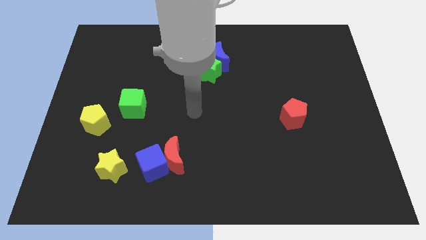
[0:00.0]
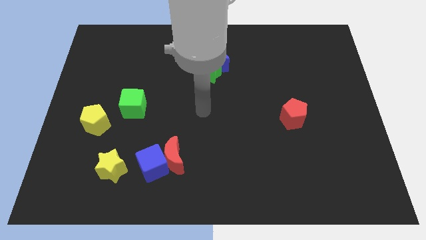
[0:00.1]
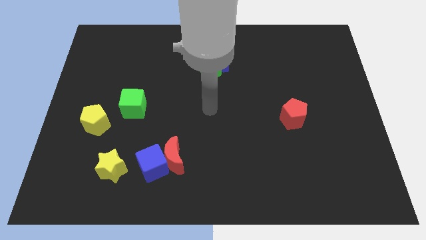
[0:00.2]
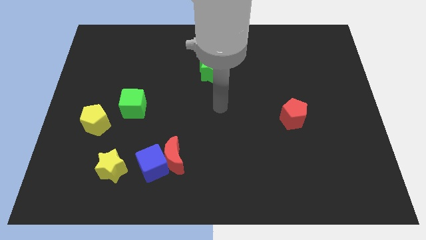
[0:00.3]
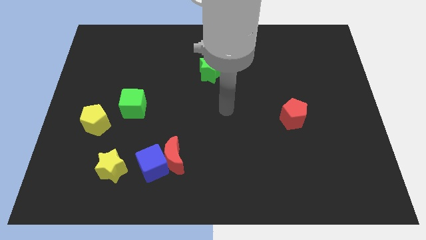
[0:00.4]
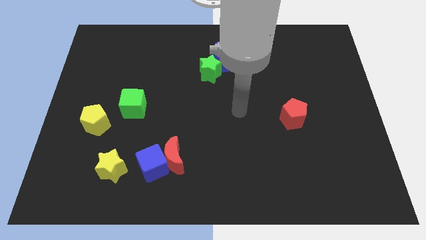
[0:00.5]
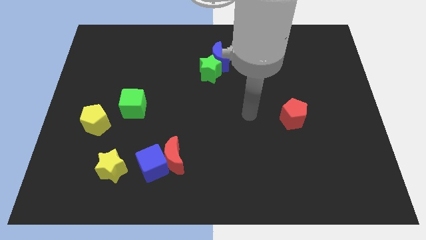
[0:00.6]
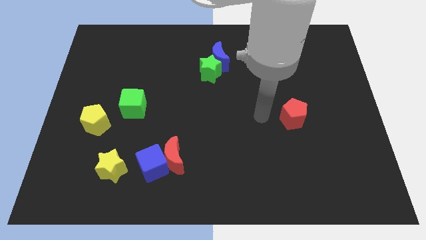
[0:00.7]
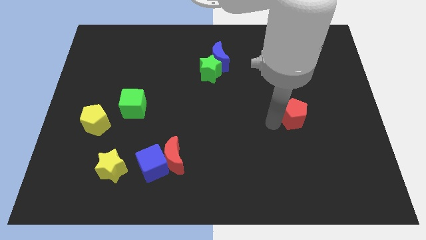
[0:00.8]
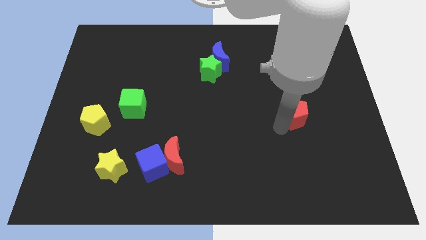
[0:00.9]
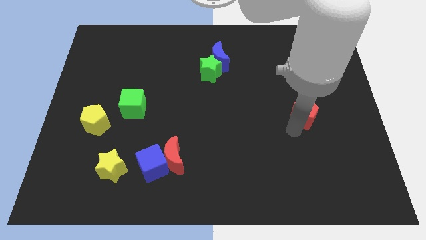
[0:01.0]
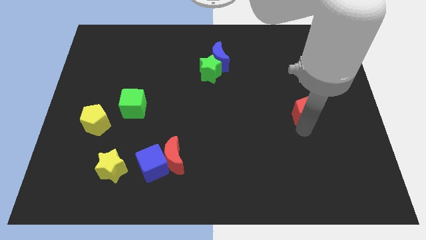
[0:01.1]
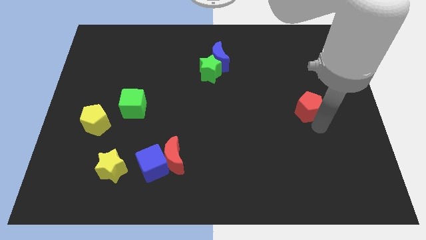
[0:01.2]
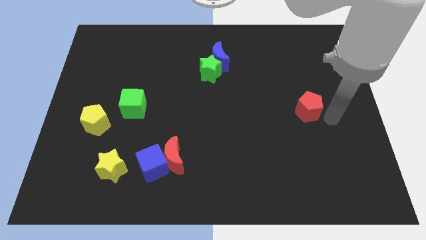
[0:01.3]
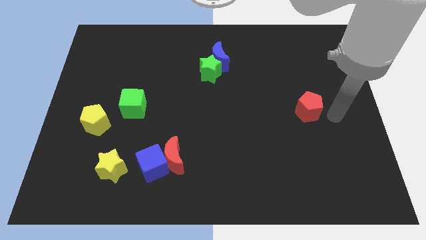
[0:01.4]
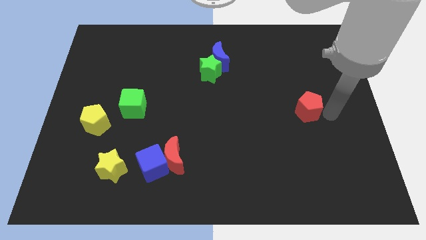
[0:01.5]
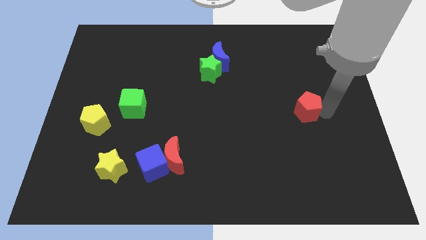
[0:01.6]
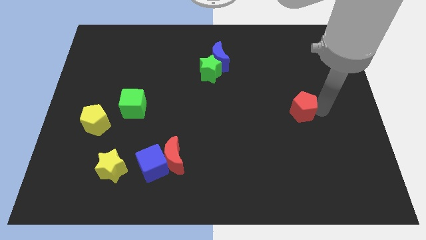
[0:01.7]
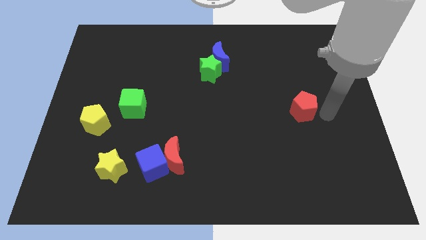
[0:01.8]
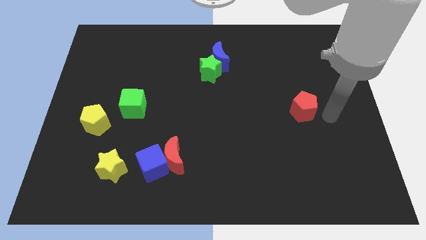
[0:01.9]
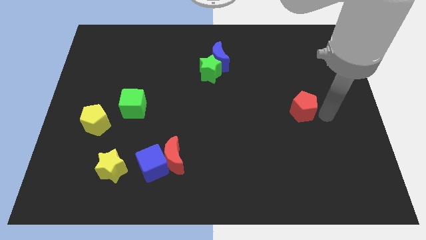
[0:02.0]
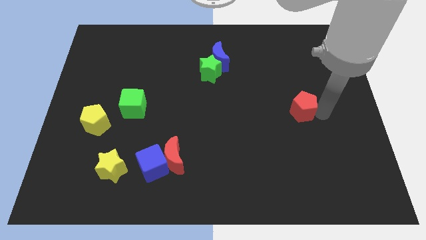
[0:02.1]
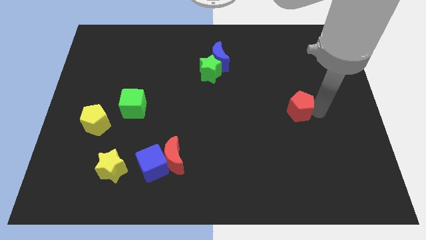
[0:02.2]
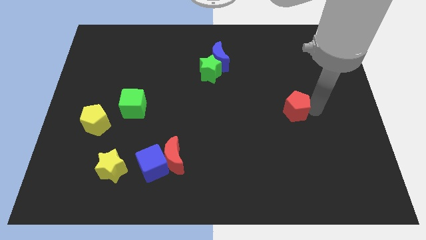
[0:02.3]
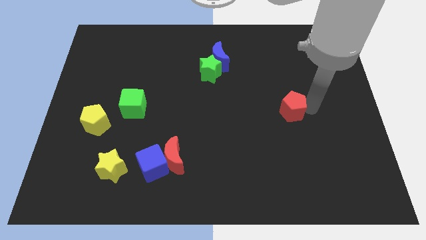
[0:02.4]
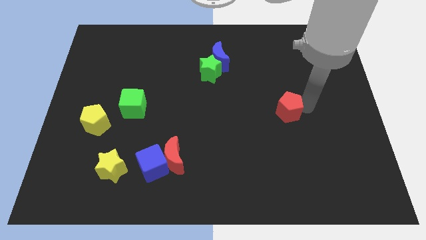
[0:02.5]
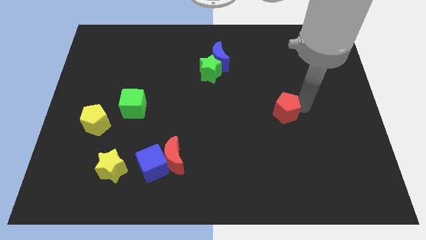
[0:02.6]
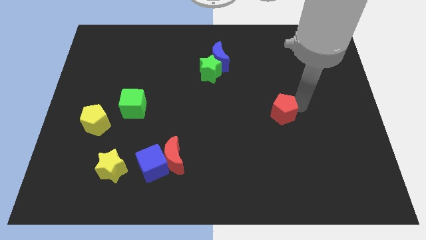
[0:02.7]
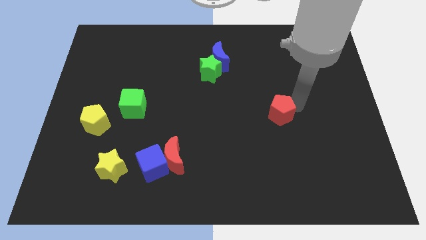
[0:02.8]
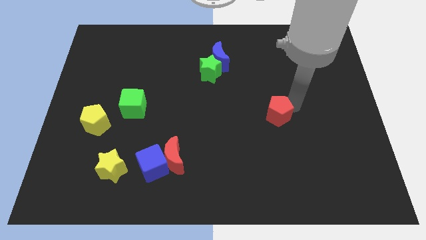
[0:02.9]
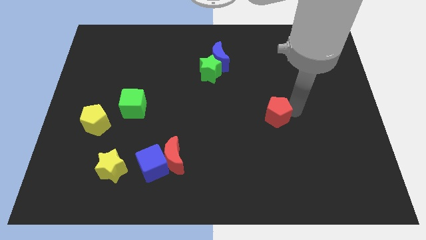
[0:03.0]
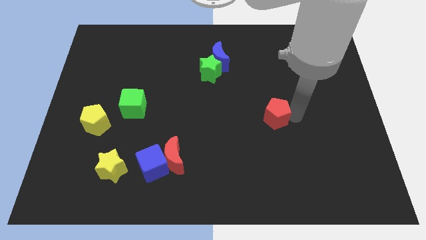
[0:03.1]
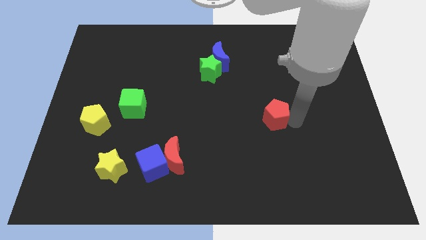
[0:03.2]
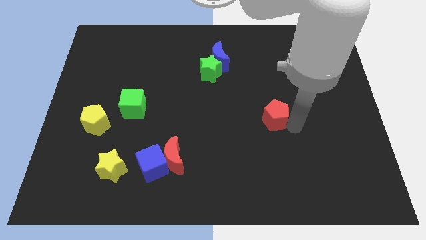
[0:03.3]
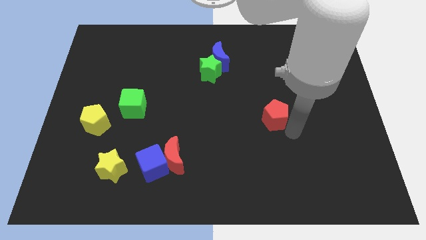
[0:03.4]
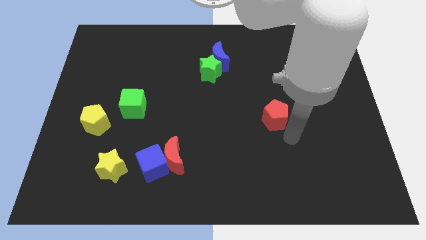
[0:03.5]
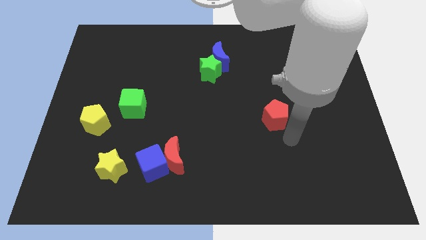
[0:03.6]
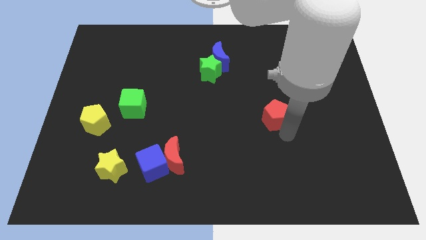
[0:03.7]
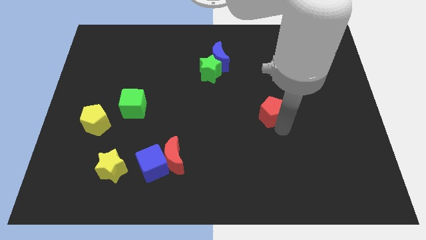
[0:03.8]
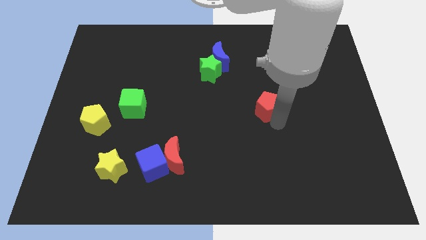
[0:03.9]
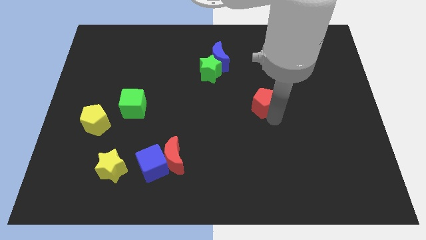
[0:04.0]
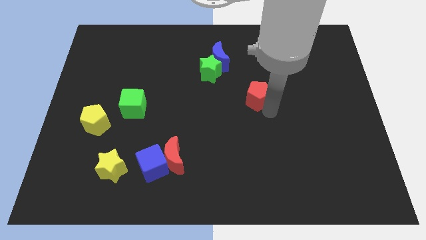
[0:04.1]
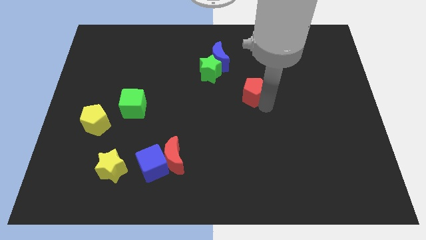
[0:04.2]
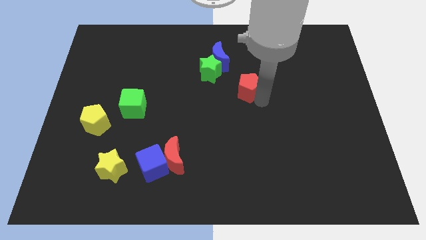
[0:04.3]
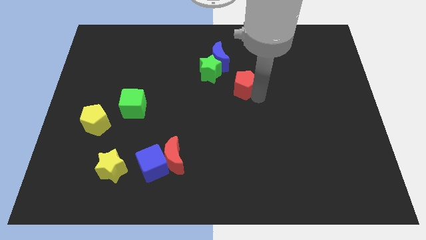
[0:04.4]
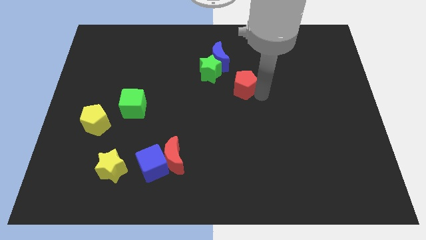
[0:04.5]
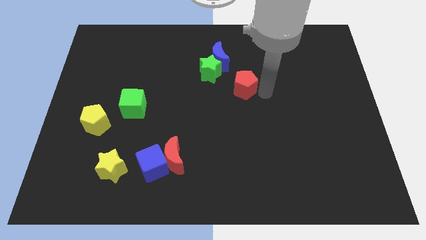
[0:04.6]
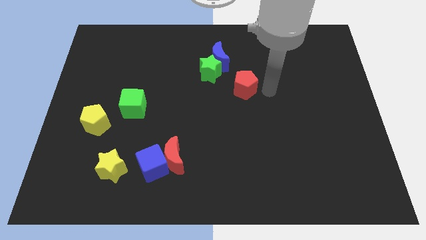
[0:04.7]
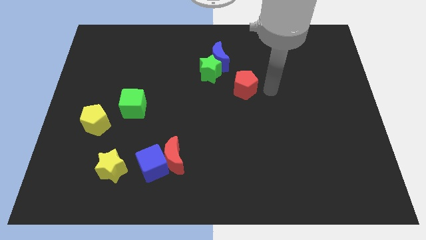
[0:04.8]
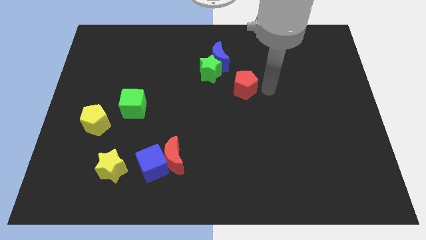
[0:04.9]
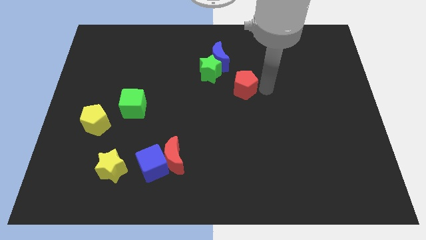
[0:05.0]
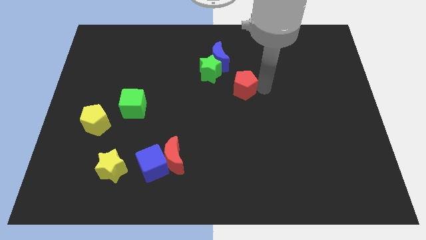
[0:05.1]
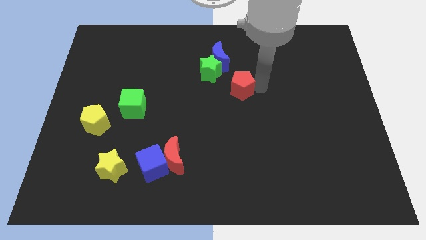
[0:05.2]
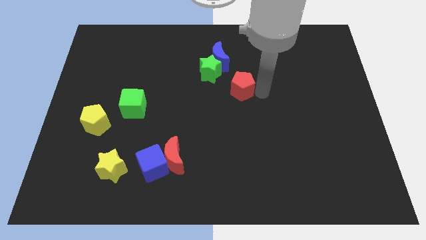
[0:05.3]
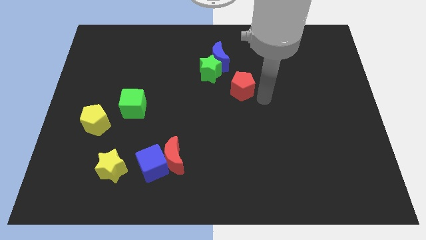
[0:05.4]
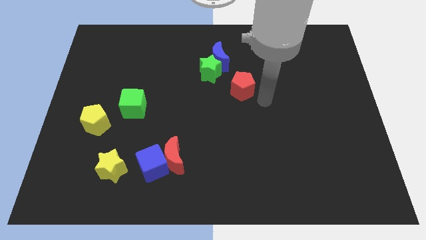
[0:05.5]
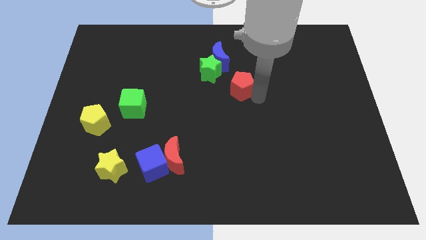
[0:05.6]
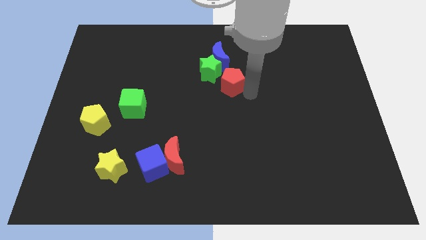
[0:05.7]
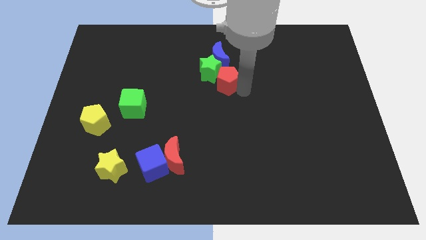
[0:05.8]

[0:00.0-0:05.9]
put the red pentagon to the green star

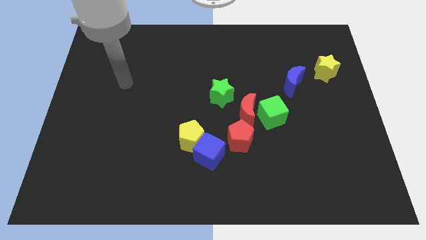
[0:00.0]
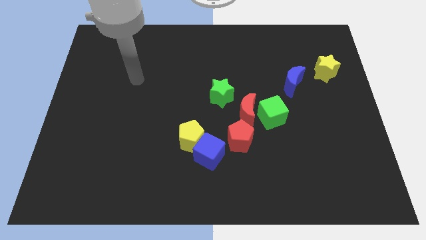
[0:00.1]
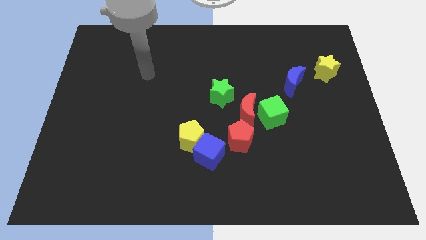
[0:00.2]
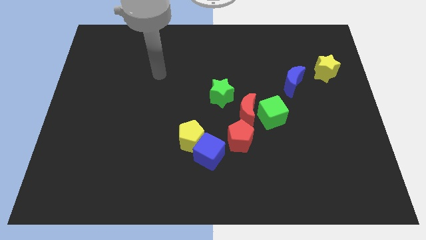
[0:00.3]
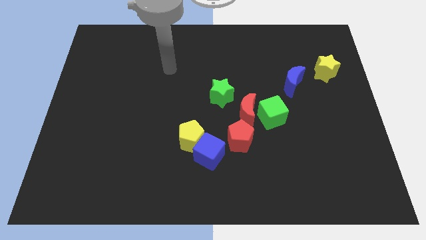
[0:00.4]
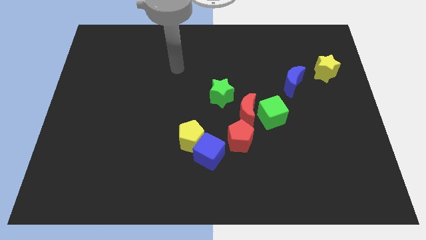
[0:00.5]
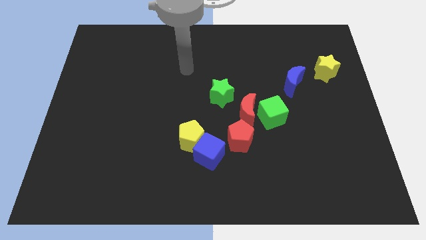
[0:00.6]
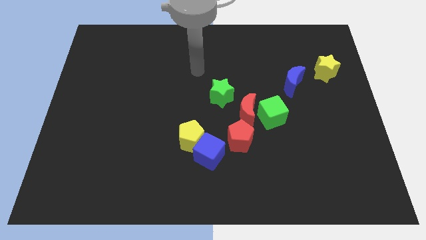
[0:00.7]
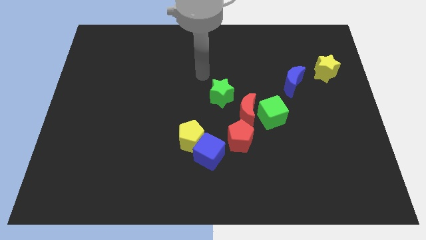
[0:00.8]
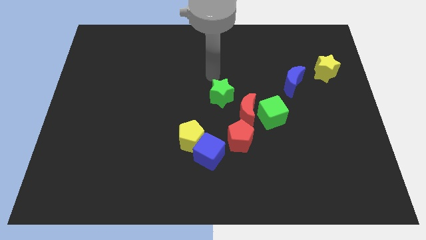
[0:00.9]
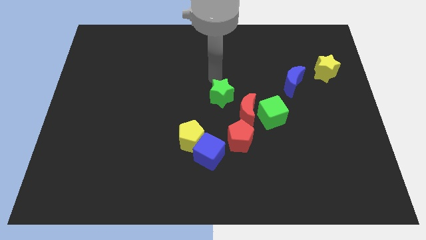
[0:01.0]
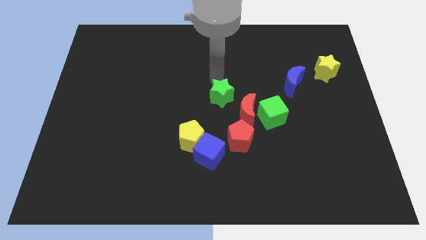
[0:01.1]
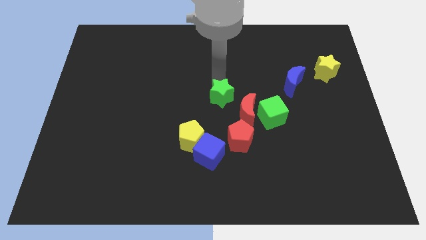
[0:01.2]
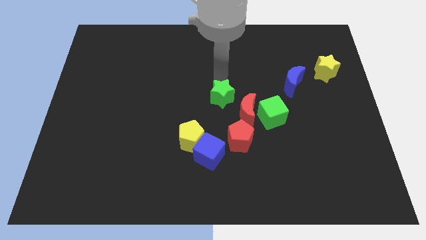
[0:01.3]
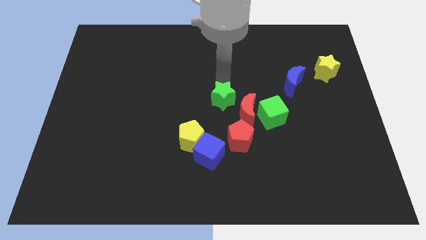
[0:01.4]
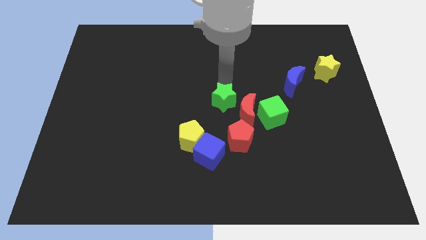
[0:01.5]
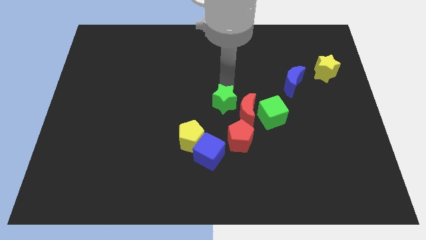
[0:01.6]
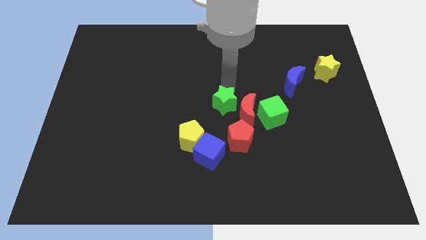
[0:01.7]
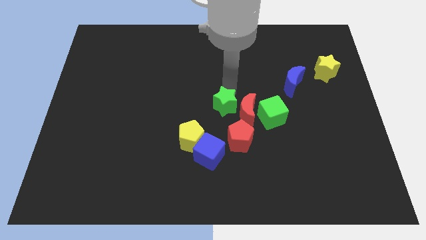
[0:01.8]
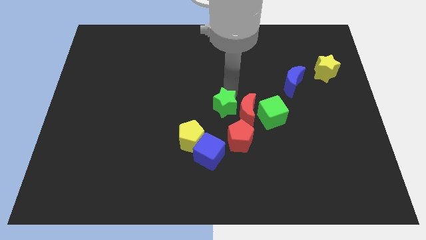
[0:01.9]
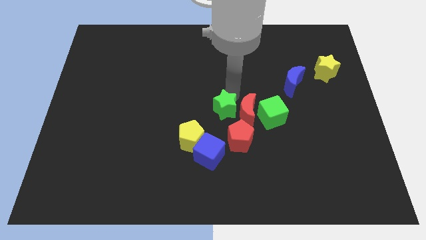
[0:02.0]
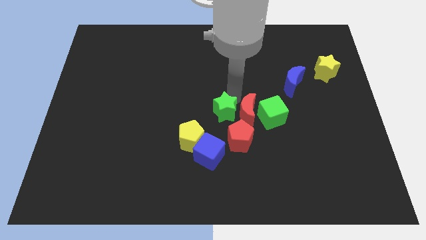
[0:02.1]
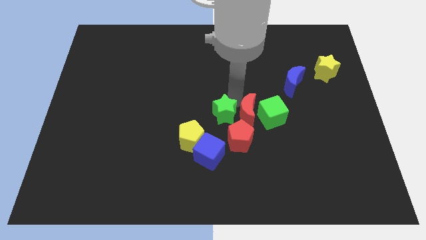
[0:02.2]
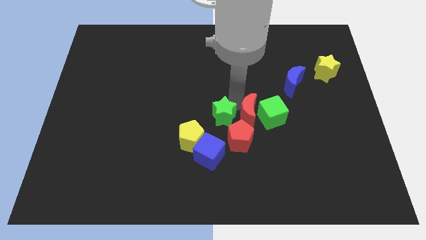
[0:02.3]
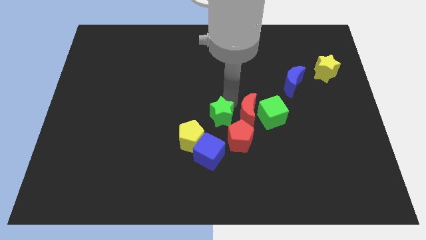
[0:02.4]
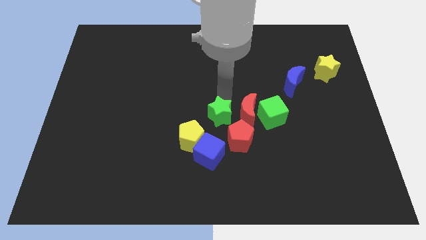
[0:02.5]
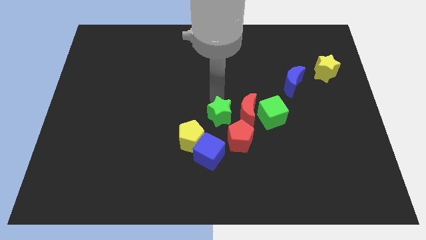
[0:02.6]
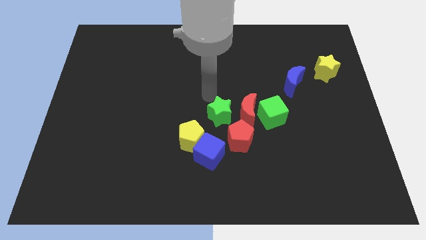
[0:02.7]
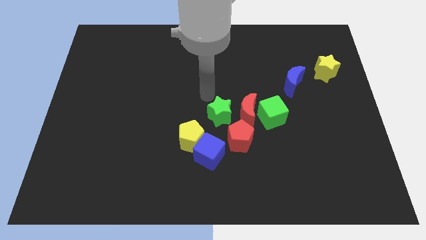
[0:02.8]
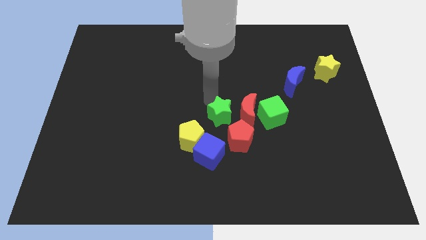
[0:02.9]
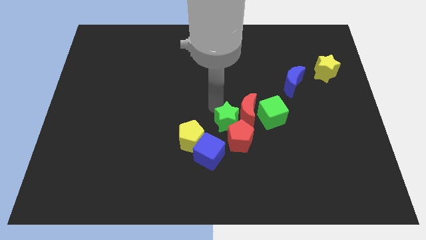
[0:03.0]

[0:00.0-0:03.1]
slide the green star towards the red pentagon
